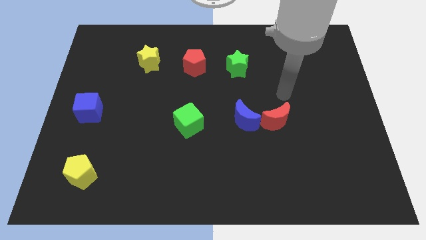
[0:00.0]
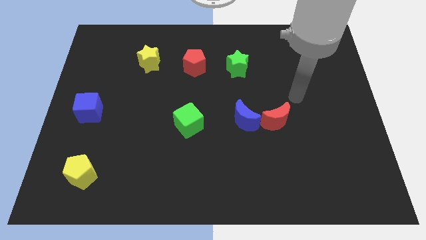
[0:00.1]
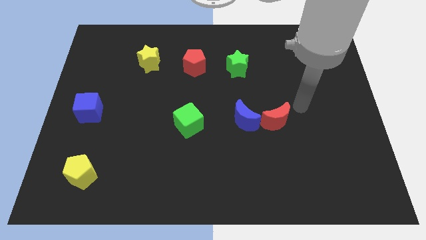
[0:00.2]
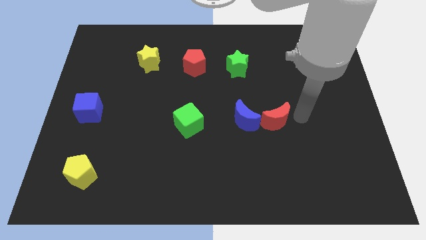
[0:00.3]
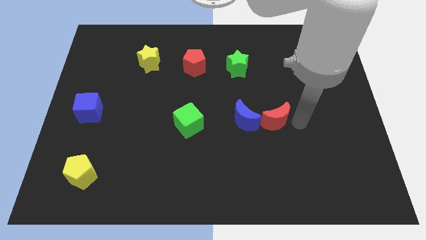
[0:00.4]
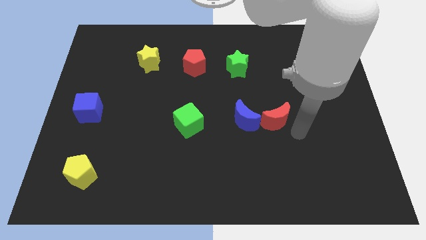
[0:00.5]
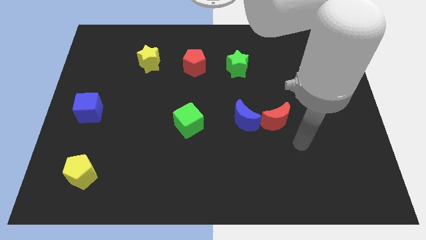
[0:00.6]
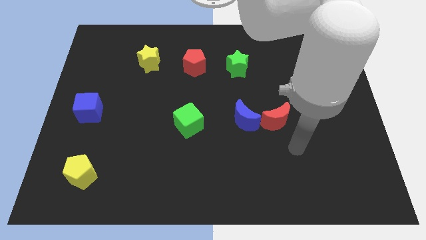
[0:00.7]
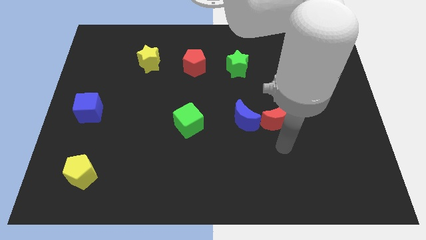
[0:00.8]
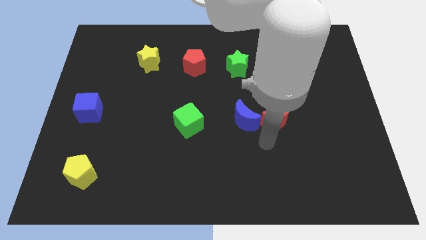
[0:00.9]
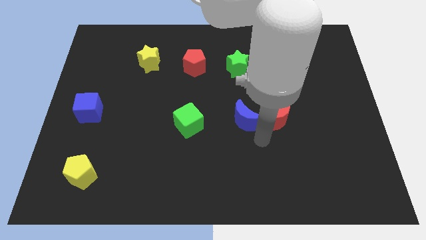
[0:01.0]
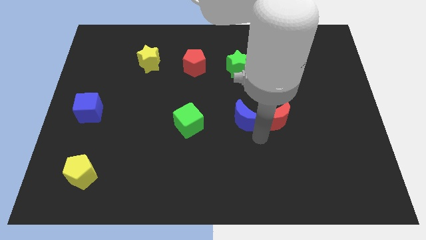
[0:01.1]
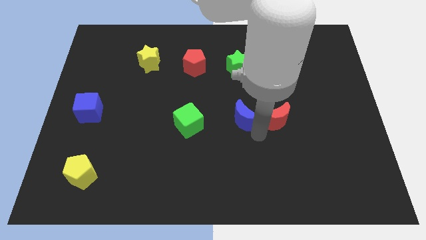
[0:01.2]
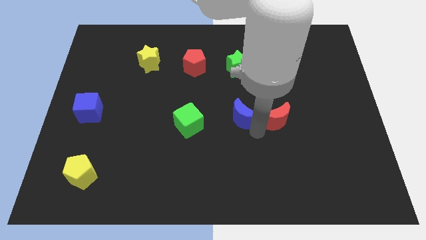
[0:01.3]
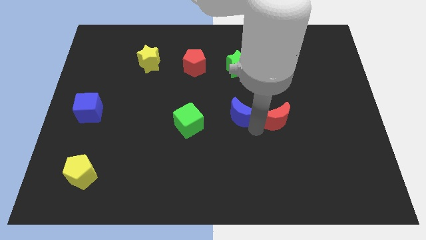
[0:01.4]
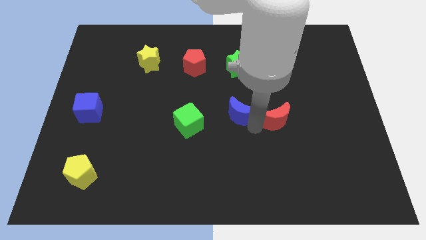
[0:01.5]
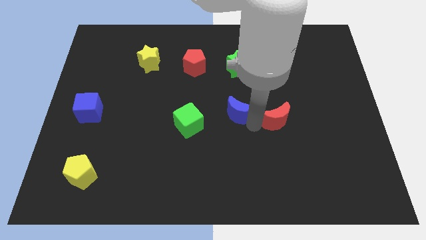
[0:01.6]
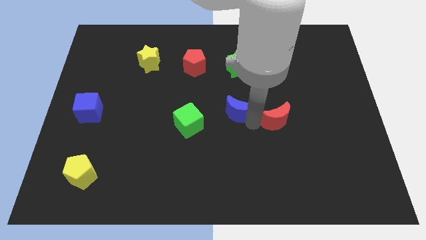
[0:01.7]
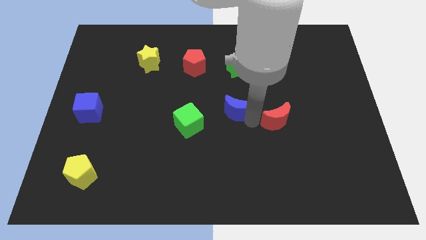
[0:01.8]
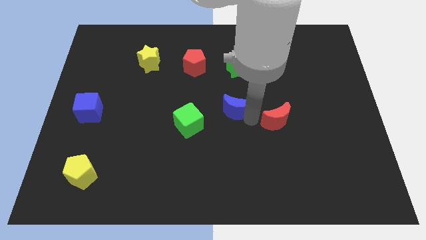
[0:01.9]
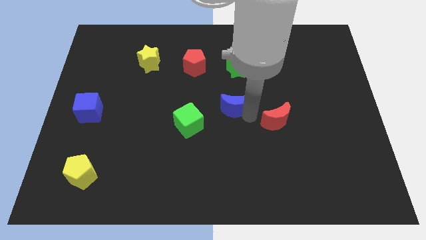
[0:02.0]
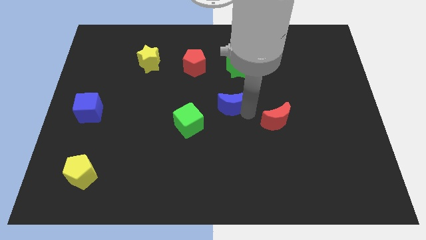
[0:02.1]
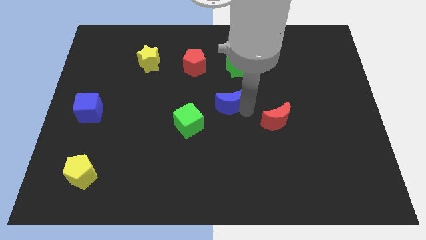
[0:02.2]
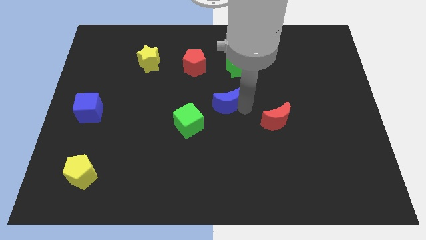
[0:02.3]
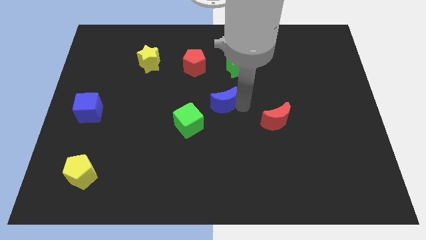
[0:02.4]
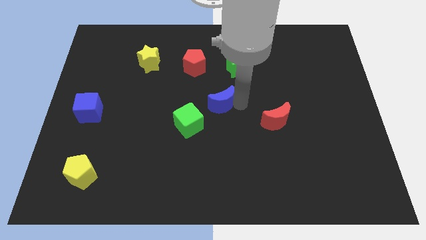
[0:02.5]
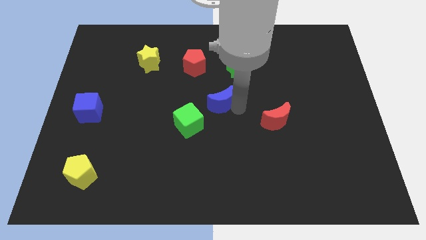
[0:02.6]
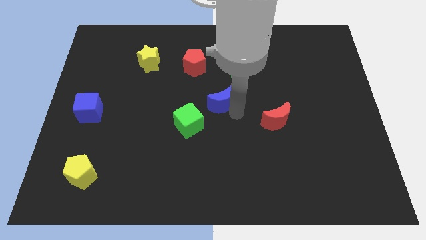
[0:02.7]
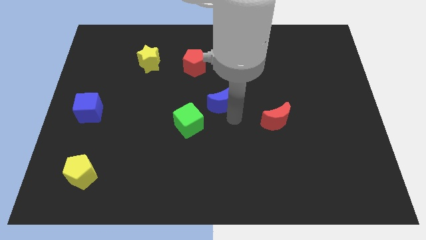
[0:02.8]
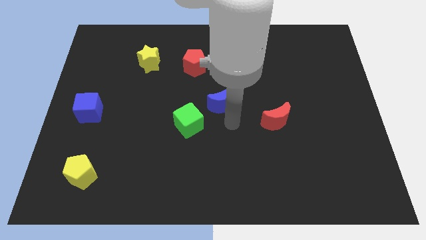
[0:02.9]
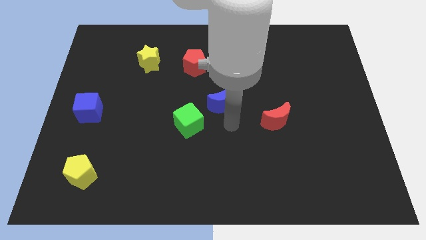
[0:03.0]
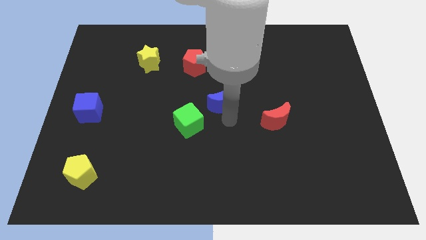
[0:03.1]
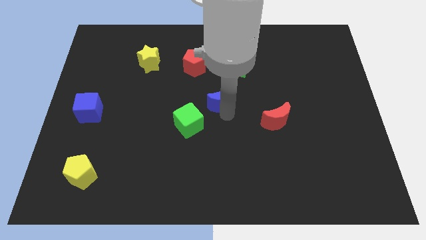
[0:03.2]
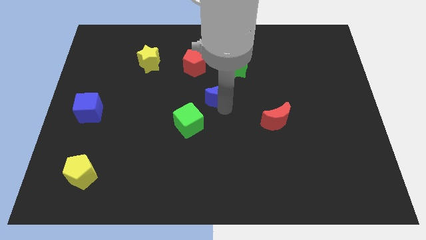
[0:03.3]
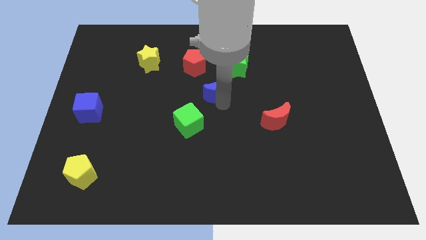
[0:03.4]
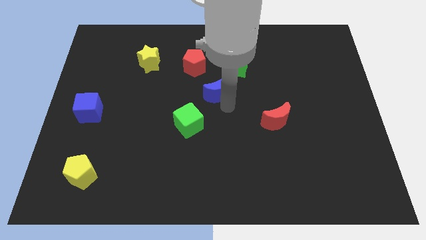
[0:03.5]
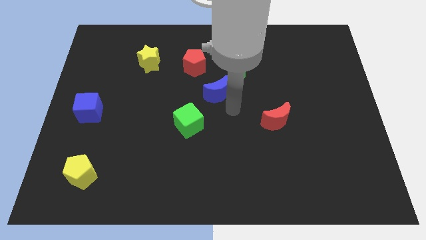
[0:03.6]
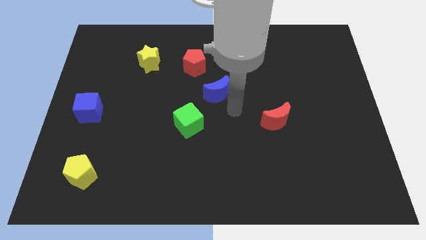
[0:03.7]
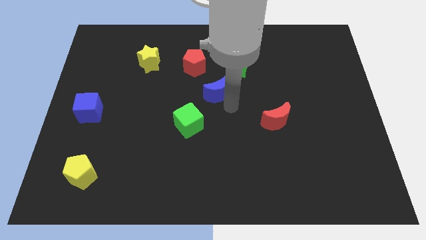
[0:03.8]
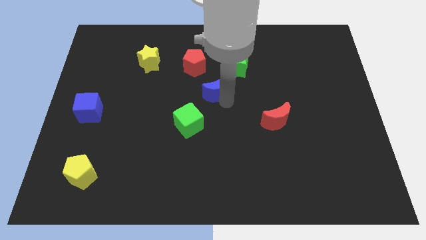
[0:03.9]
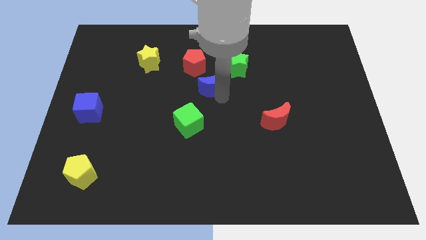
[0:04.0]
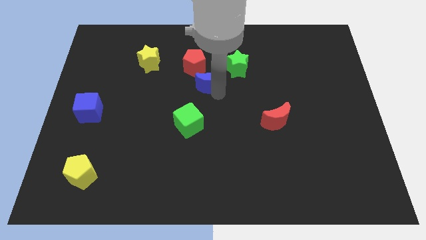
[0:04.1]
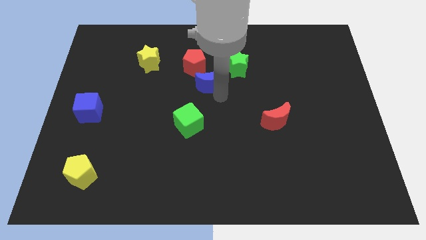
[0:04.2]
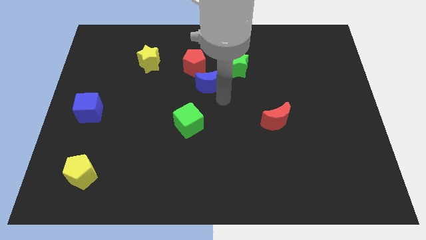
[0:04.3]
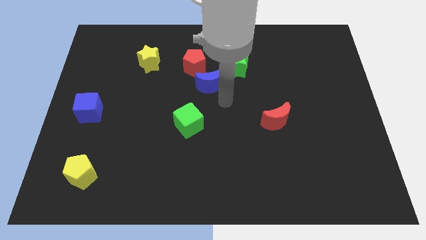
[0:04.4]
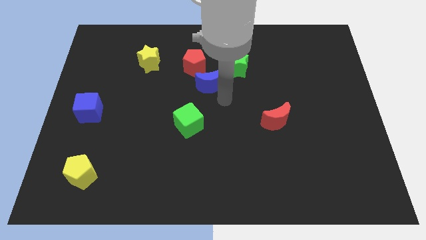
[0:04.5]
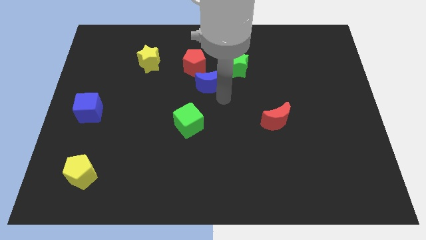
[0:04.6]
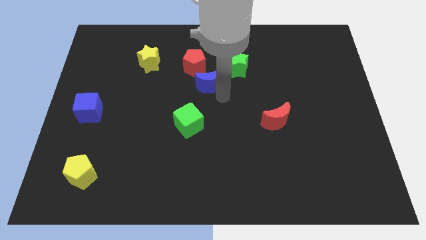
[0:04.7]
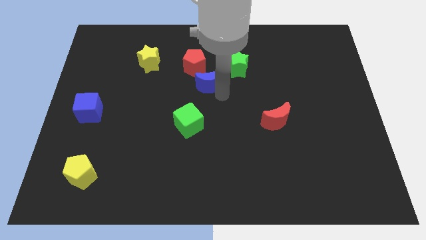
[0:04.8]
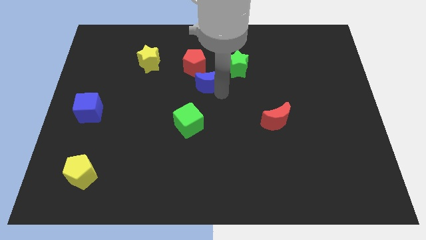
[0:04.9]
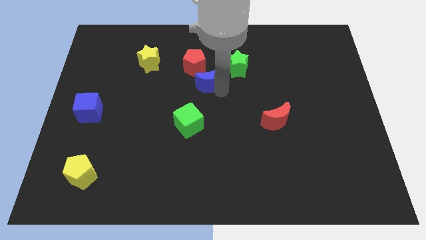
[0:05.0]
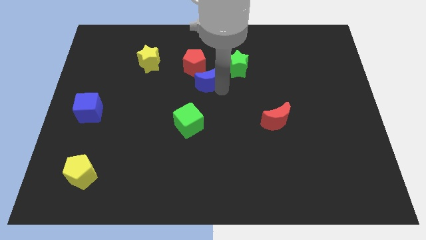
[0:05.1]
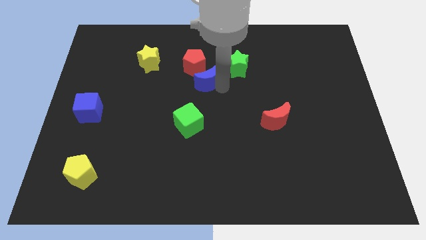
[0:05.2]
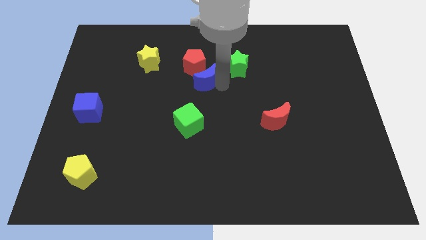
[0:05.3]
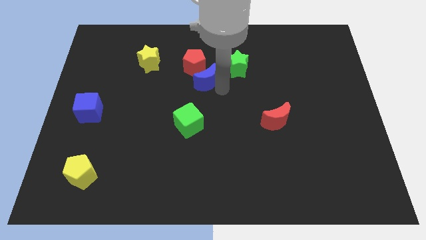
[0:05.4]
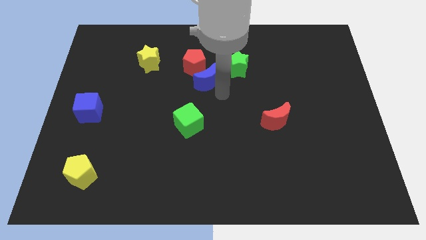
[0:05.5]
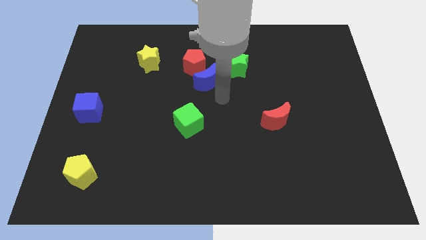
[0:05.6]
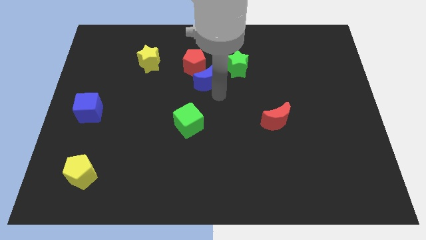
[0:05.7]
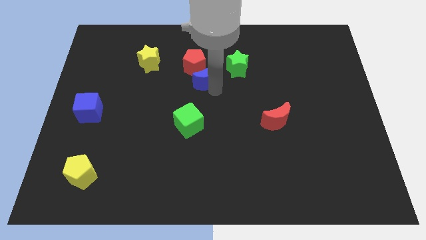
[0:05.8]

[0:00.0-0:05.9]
move the blue moon next to the red pentagon

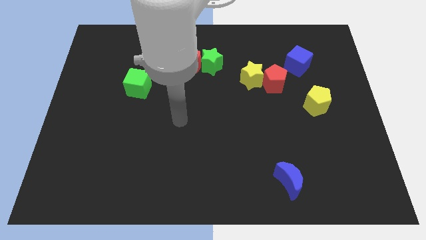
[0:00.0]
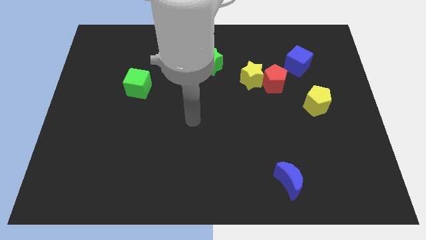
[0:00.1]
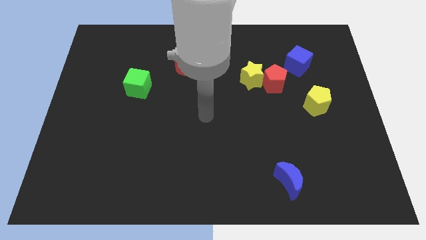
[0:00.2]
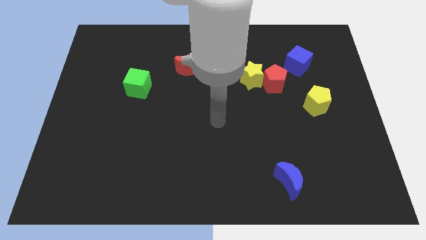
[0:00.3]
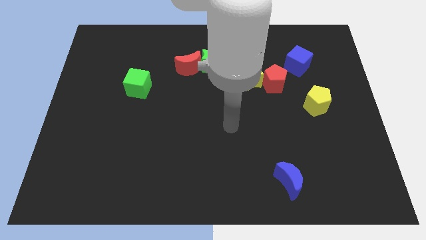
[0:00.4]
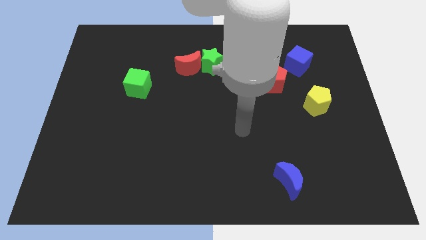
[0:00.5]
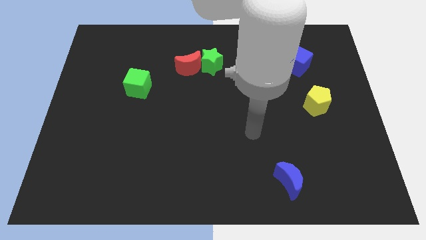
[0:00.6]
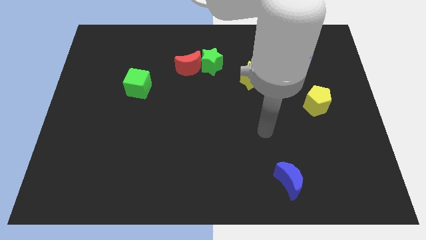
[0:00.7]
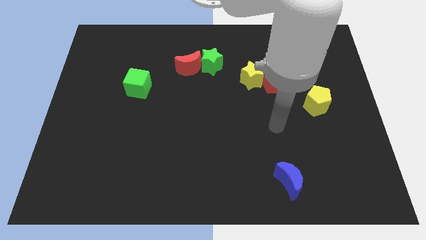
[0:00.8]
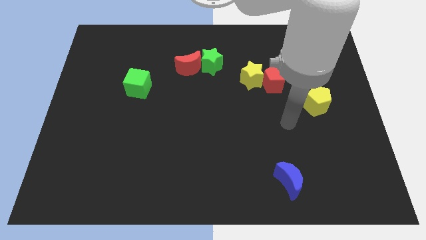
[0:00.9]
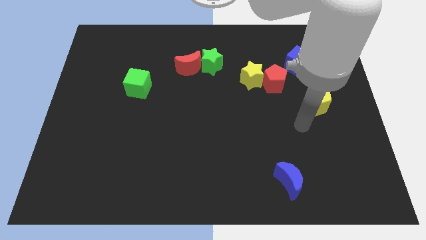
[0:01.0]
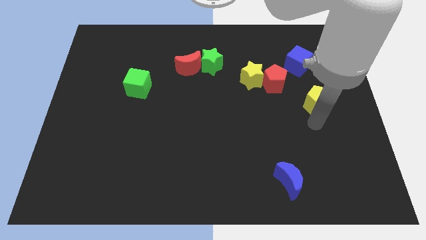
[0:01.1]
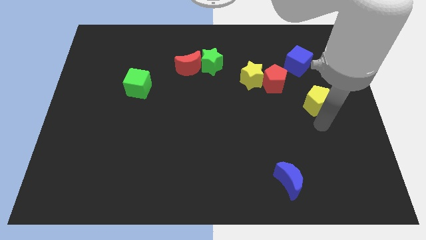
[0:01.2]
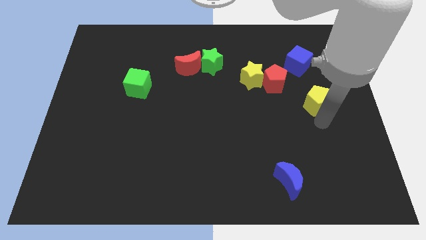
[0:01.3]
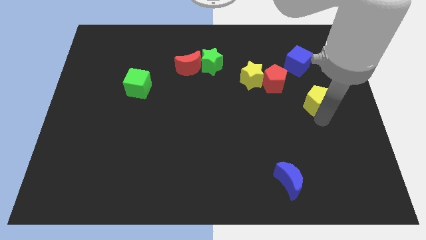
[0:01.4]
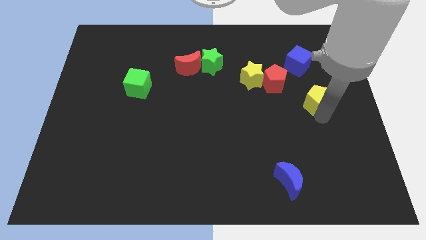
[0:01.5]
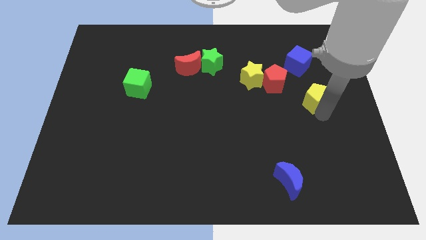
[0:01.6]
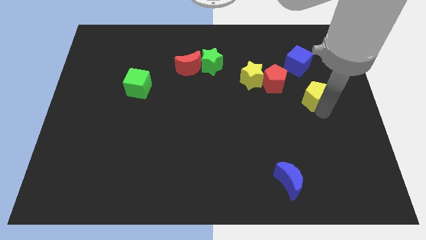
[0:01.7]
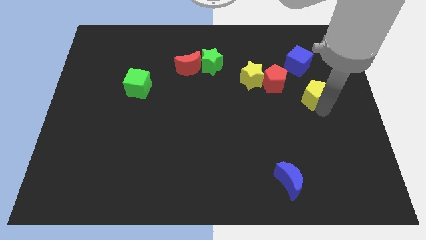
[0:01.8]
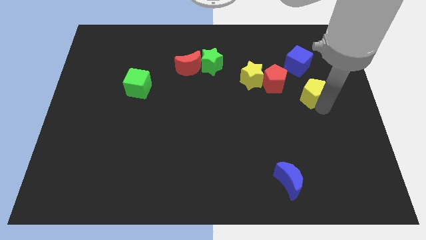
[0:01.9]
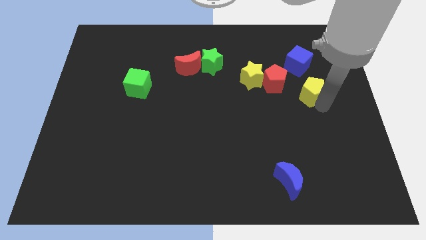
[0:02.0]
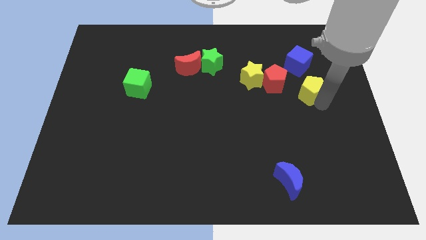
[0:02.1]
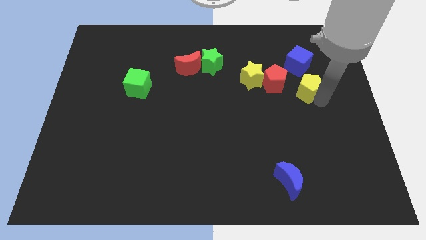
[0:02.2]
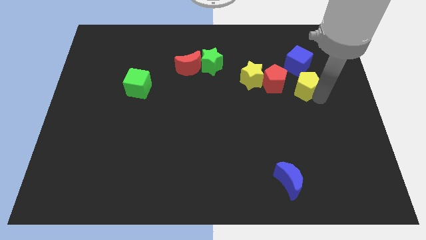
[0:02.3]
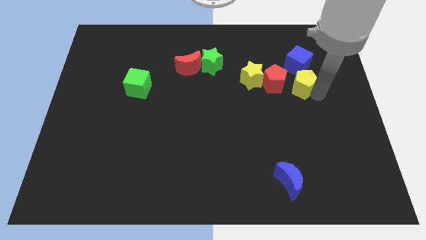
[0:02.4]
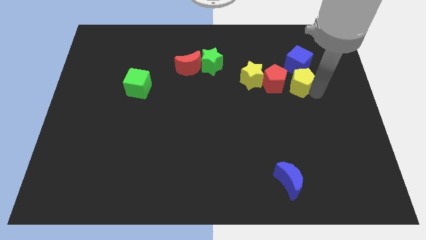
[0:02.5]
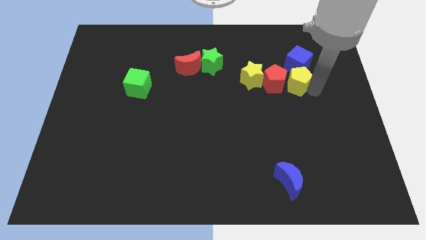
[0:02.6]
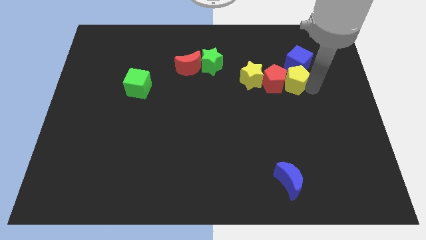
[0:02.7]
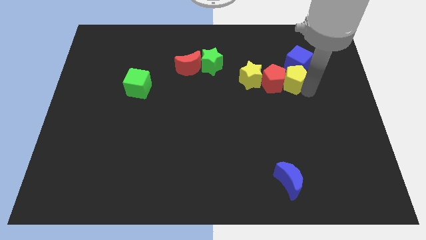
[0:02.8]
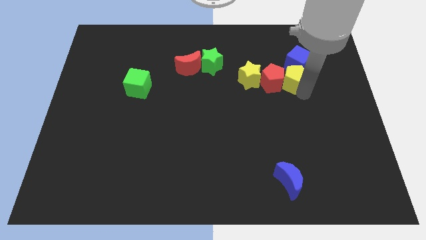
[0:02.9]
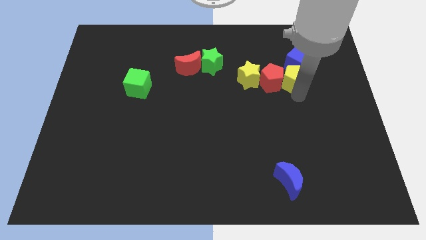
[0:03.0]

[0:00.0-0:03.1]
push the yellow pentagon towards the blue cube
